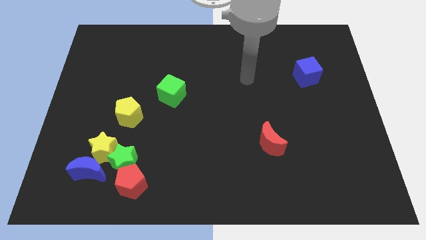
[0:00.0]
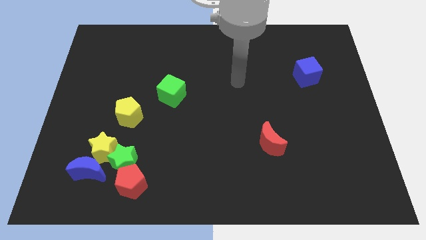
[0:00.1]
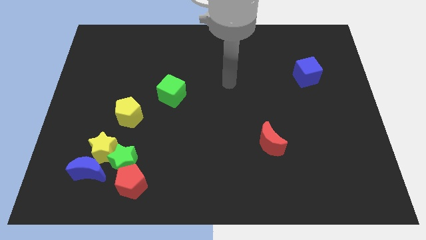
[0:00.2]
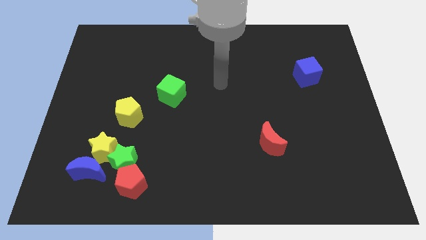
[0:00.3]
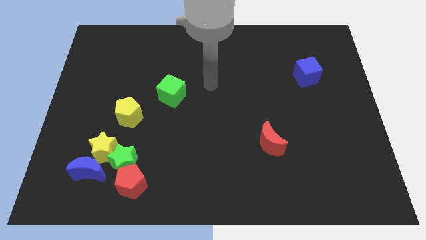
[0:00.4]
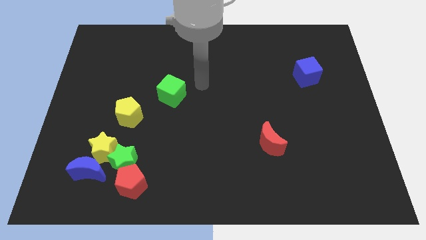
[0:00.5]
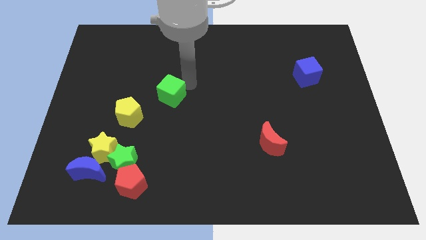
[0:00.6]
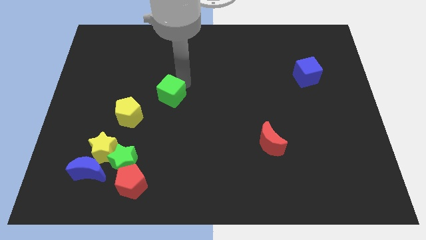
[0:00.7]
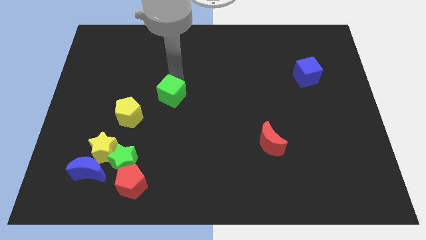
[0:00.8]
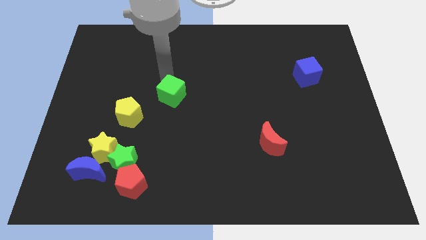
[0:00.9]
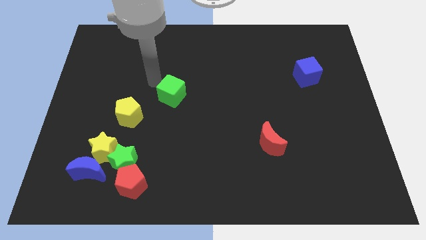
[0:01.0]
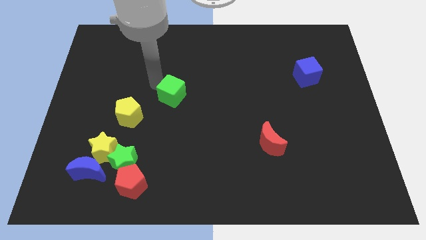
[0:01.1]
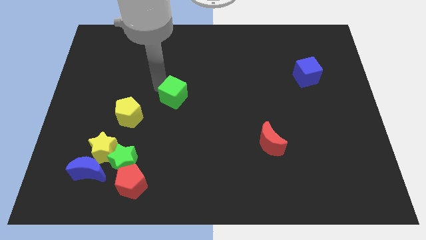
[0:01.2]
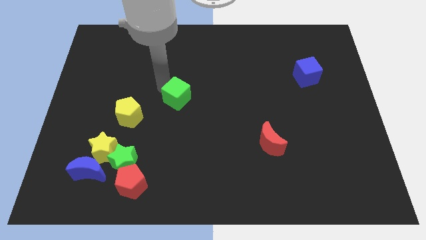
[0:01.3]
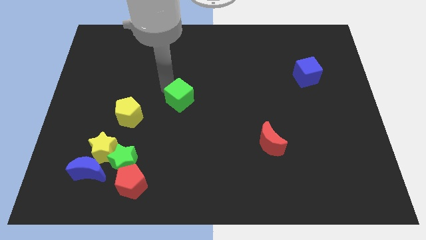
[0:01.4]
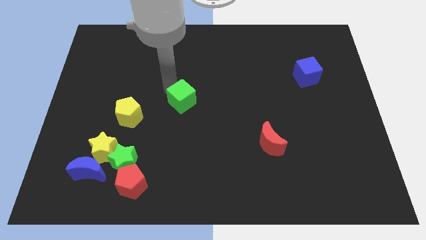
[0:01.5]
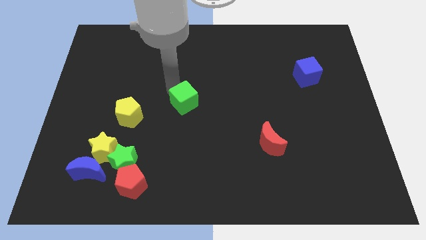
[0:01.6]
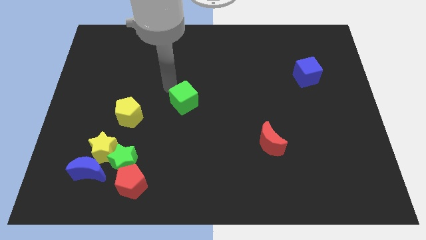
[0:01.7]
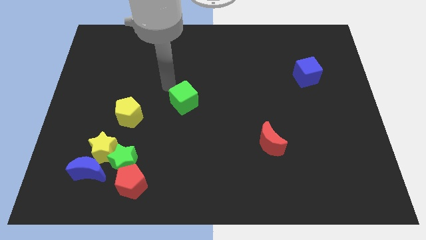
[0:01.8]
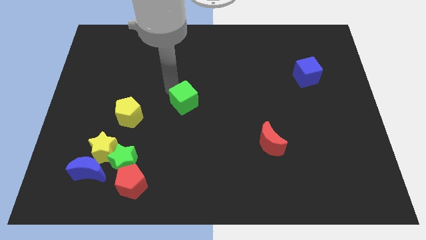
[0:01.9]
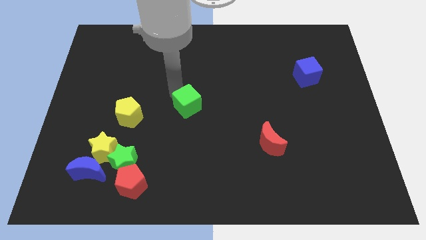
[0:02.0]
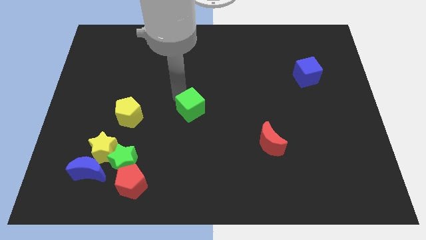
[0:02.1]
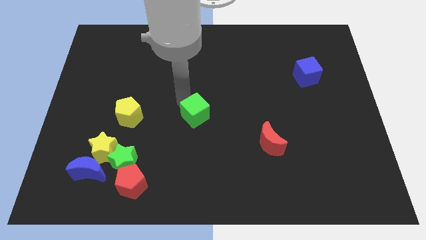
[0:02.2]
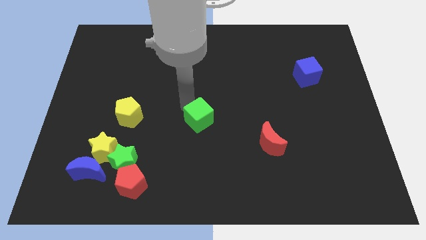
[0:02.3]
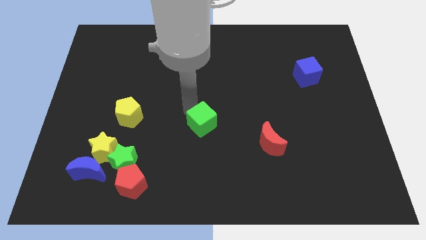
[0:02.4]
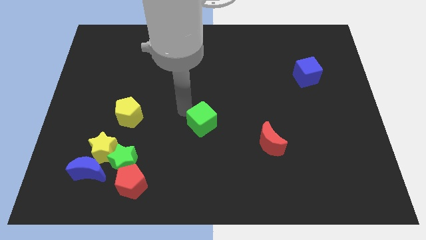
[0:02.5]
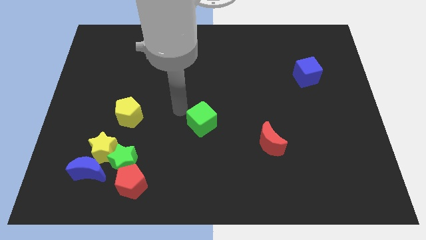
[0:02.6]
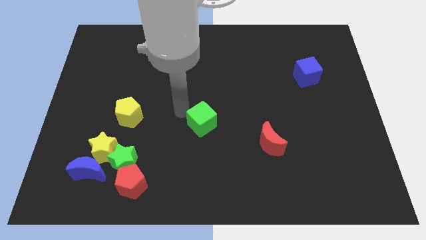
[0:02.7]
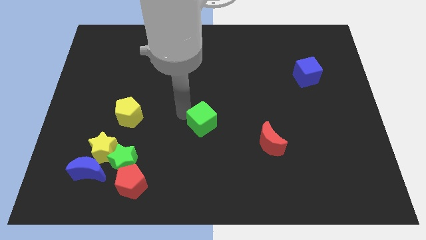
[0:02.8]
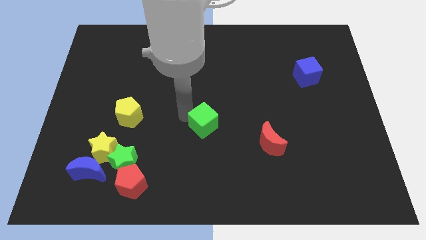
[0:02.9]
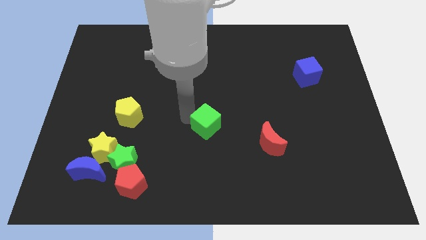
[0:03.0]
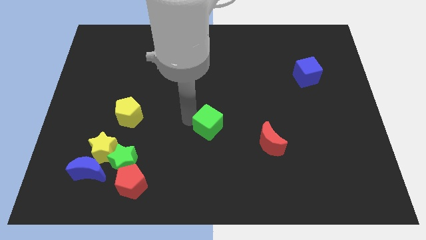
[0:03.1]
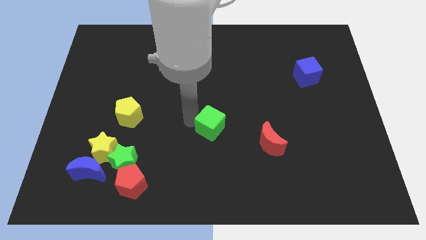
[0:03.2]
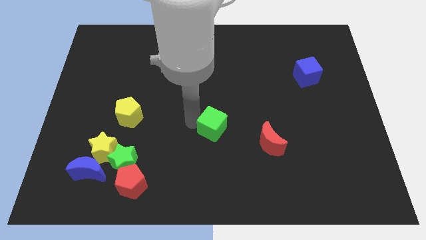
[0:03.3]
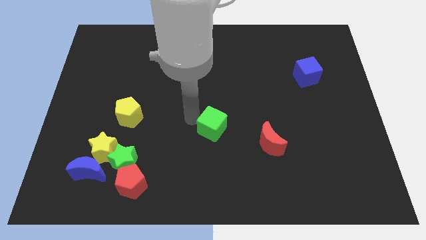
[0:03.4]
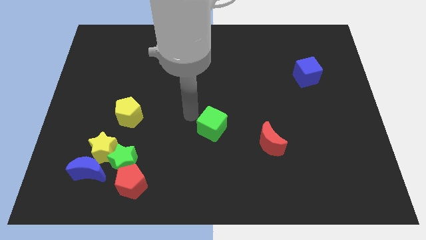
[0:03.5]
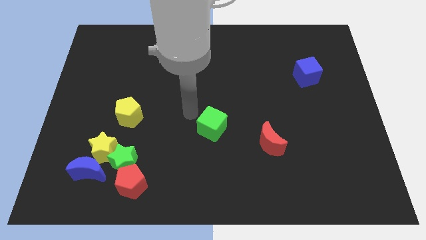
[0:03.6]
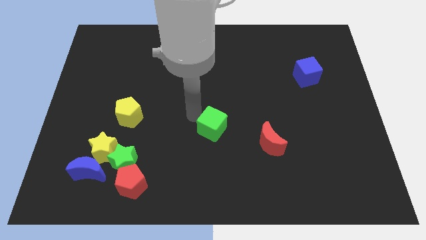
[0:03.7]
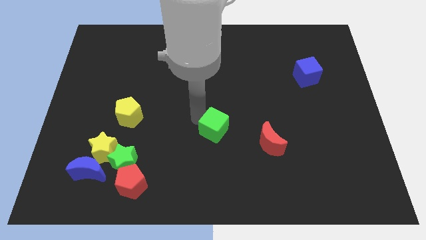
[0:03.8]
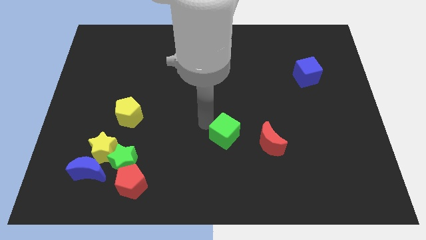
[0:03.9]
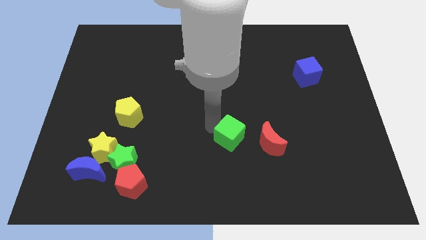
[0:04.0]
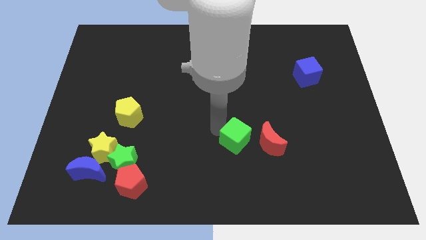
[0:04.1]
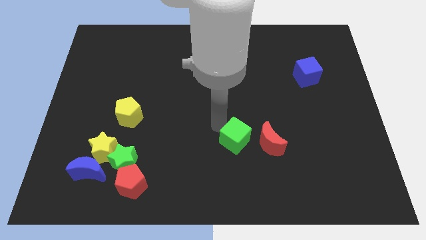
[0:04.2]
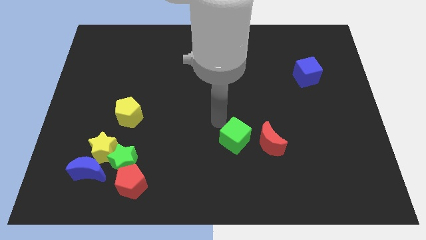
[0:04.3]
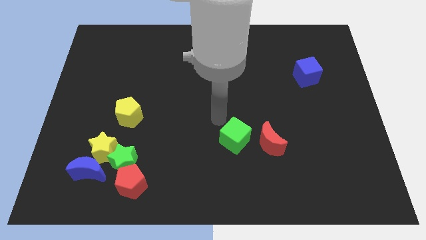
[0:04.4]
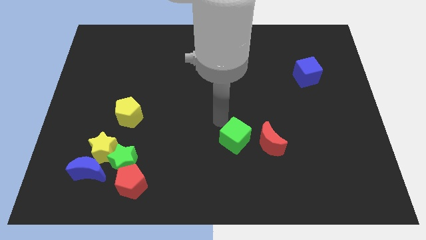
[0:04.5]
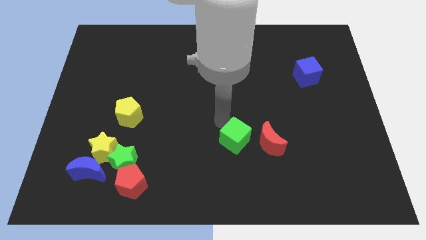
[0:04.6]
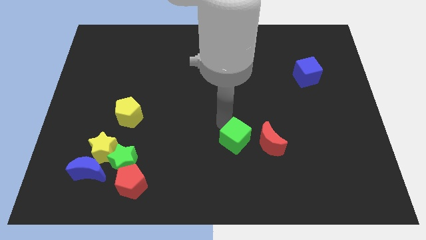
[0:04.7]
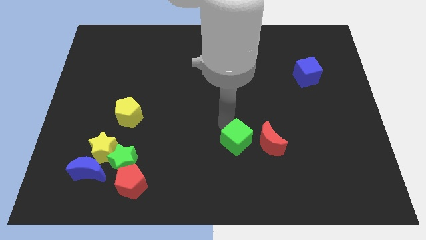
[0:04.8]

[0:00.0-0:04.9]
move the green cube down and then right

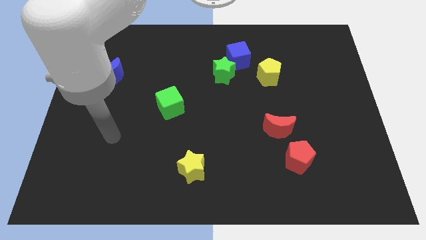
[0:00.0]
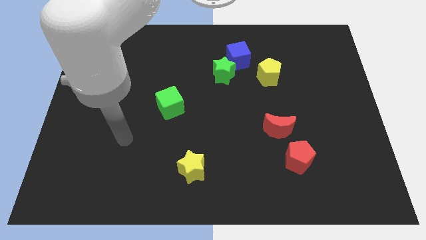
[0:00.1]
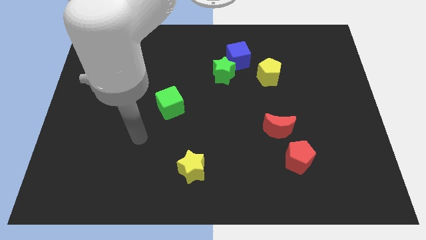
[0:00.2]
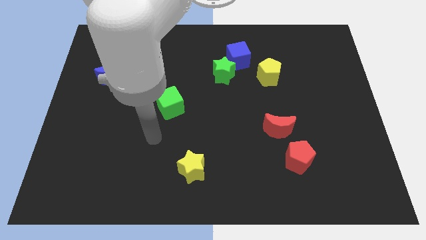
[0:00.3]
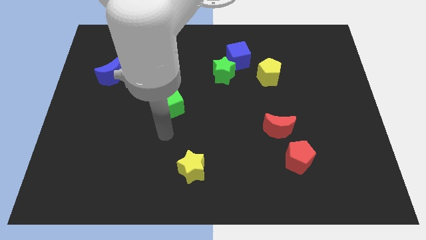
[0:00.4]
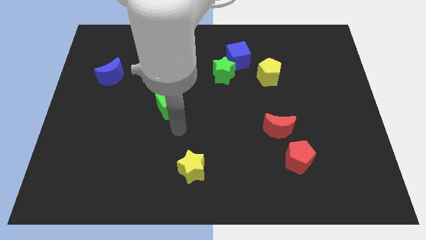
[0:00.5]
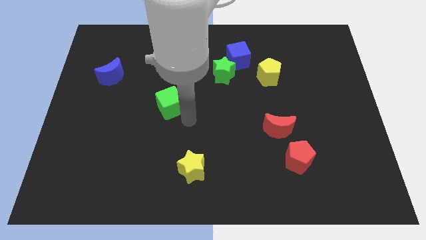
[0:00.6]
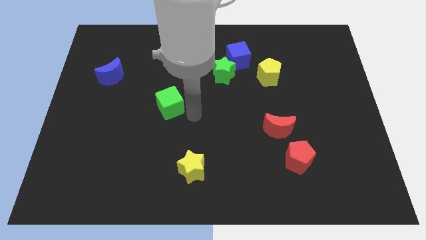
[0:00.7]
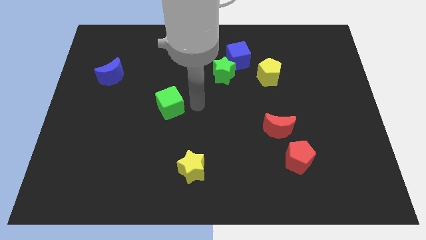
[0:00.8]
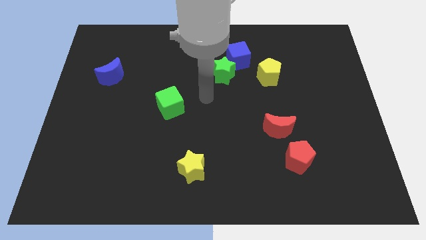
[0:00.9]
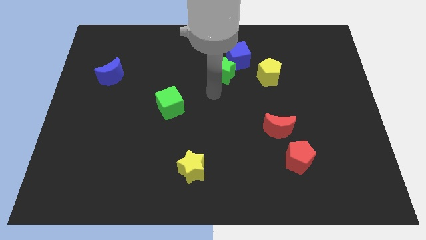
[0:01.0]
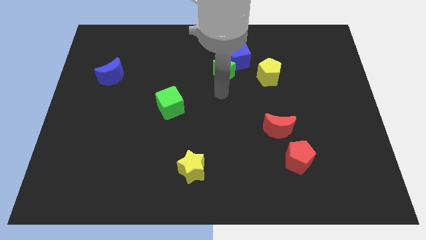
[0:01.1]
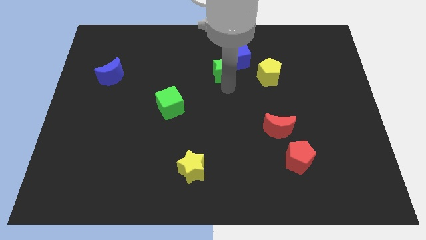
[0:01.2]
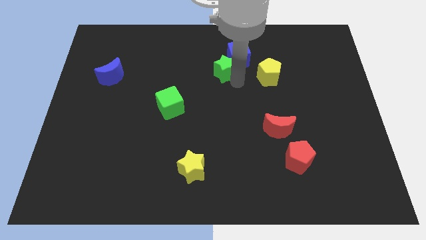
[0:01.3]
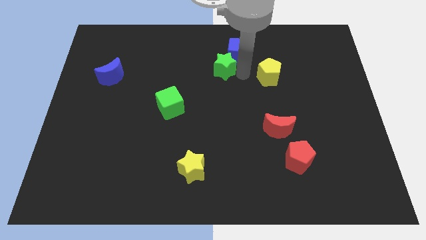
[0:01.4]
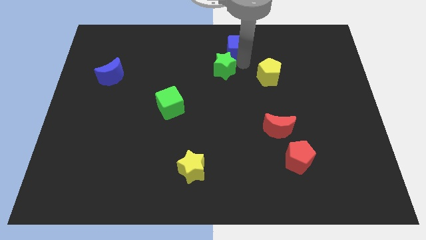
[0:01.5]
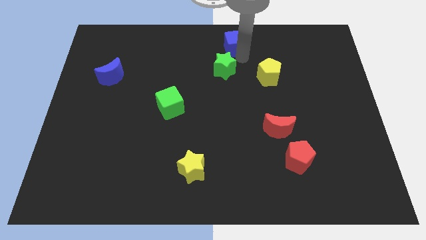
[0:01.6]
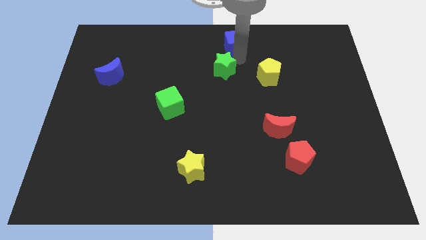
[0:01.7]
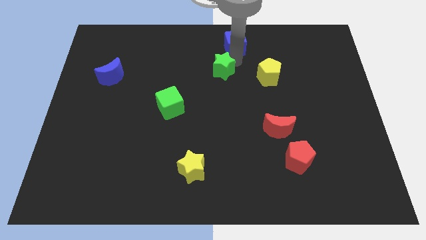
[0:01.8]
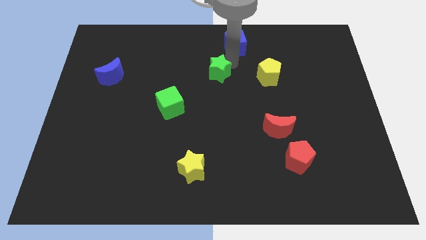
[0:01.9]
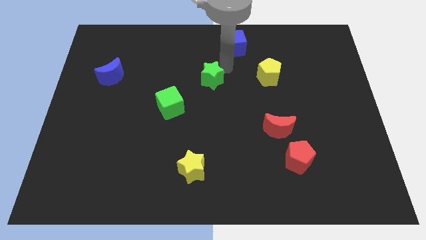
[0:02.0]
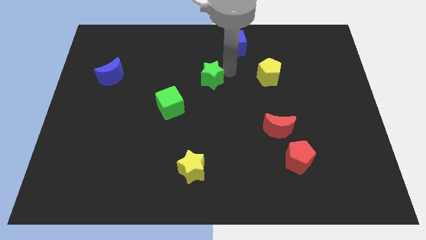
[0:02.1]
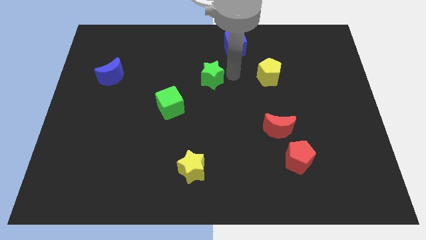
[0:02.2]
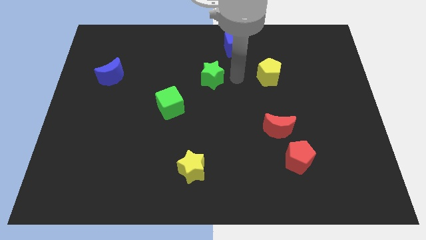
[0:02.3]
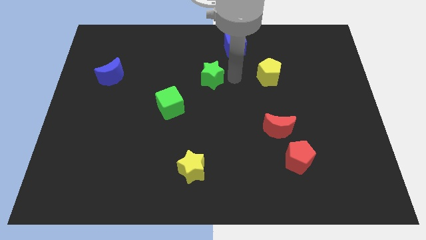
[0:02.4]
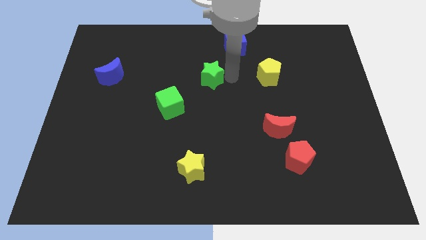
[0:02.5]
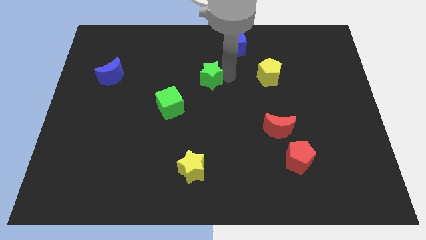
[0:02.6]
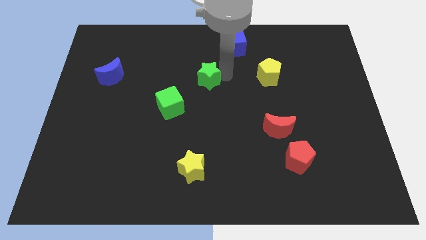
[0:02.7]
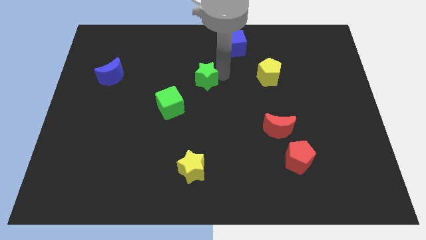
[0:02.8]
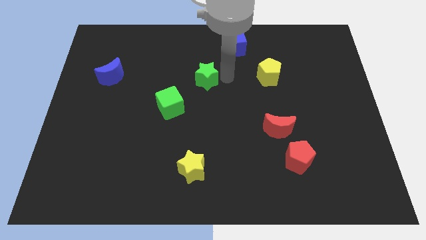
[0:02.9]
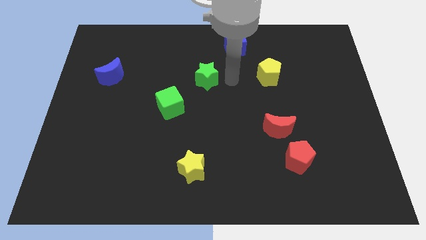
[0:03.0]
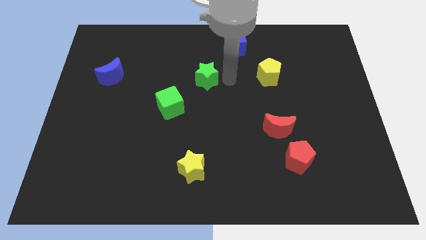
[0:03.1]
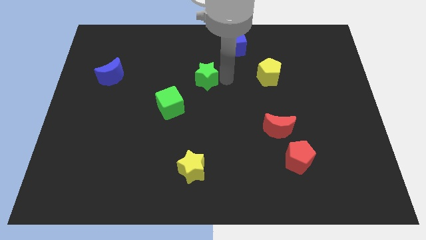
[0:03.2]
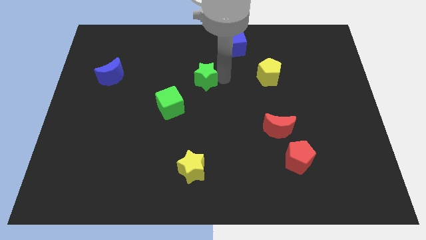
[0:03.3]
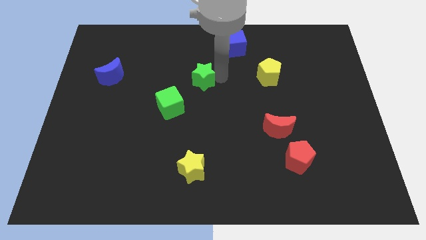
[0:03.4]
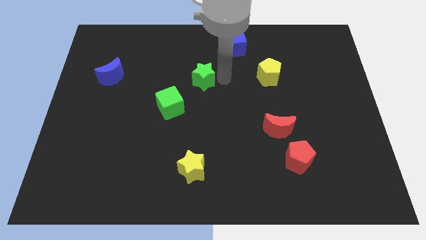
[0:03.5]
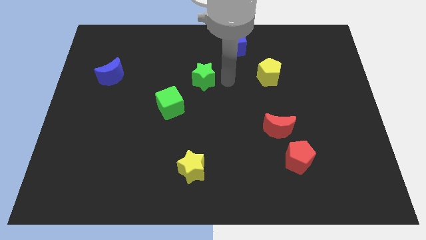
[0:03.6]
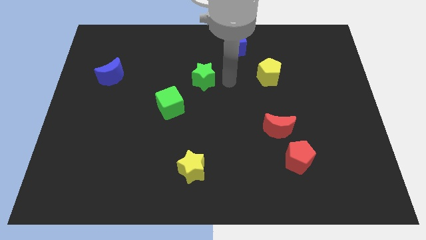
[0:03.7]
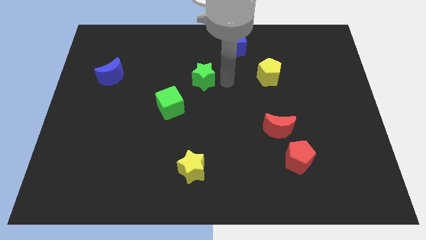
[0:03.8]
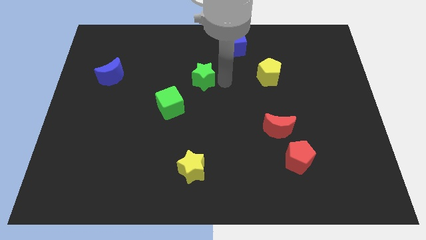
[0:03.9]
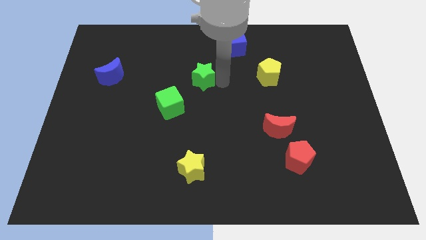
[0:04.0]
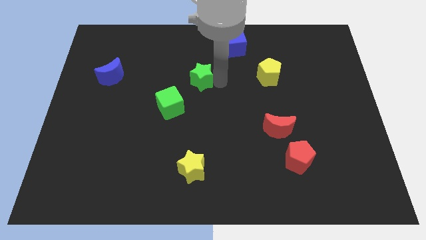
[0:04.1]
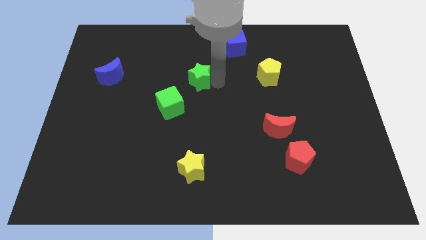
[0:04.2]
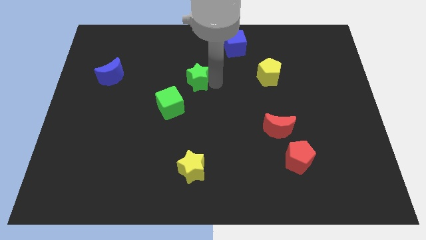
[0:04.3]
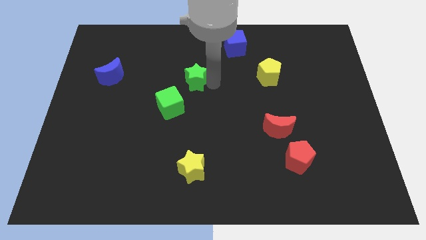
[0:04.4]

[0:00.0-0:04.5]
slightly slide the green star left
